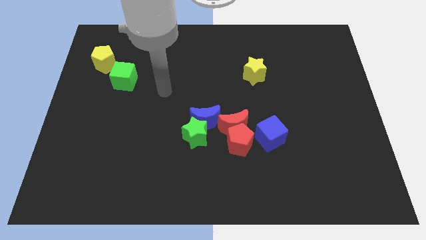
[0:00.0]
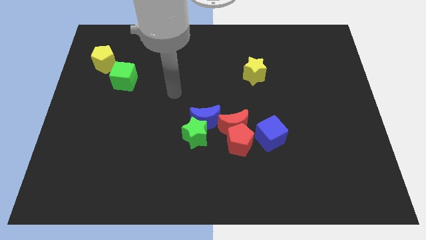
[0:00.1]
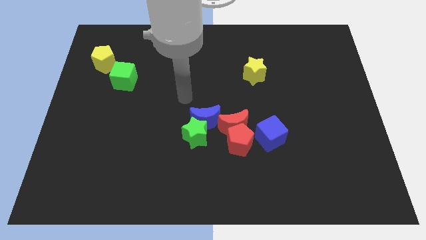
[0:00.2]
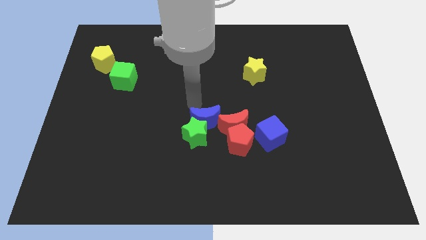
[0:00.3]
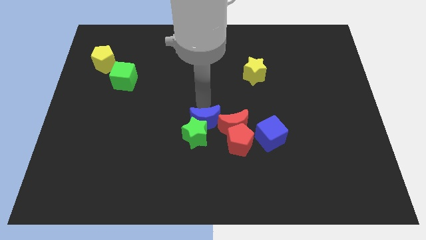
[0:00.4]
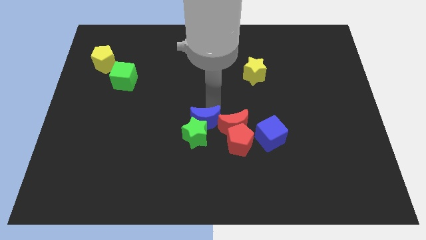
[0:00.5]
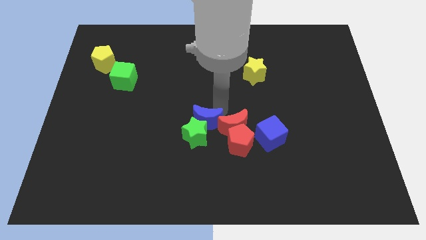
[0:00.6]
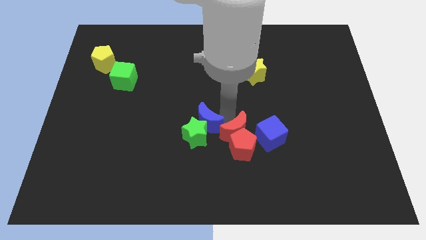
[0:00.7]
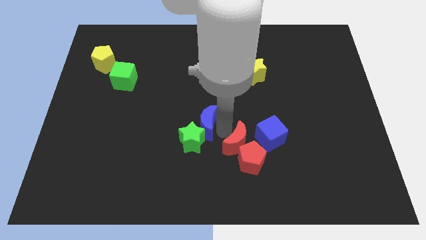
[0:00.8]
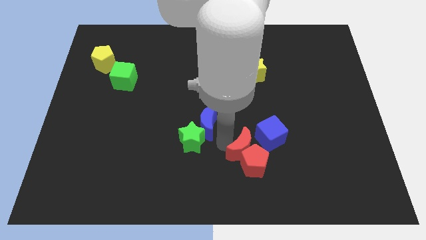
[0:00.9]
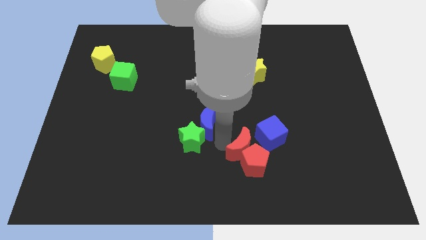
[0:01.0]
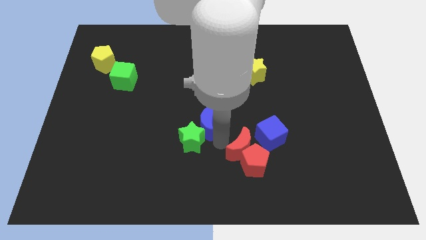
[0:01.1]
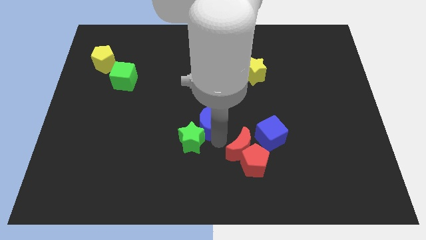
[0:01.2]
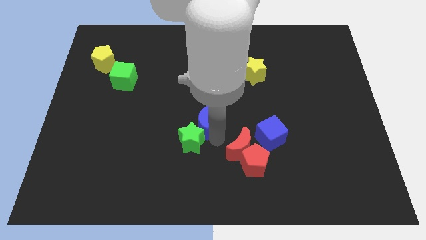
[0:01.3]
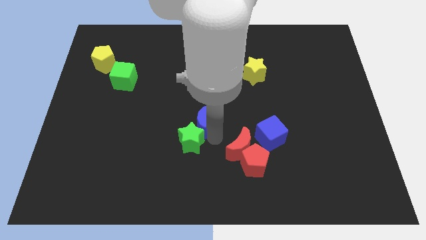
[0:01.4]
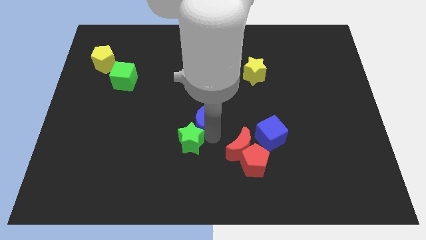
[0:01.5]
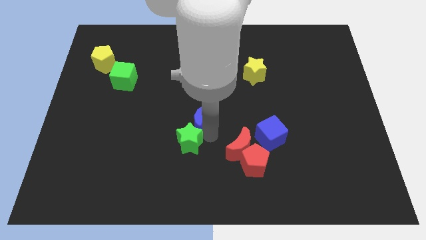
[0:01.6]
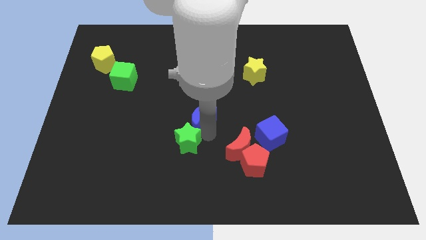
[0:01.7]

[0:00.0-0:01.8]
pull the blue moon apart from the group

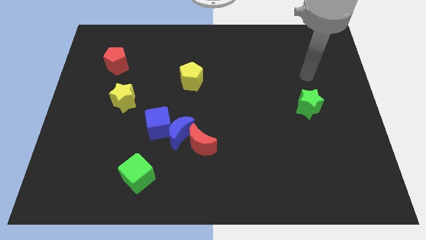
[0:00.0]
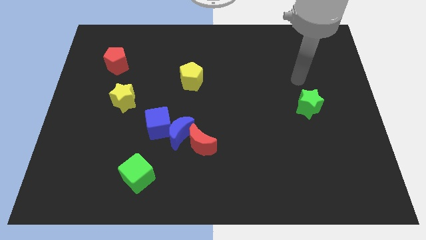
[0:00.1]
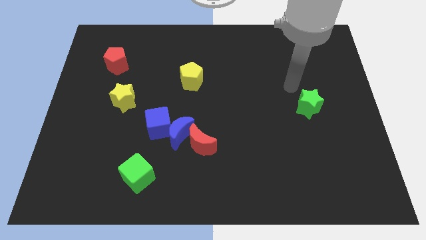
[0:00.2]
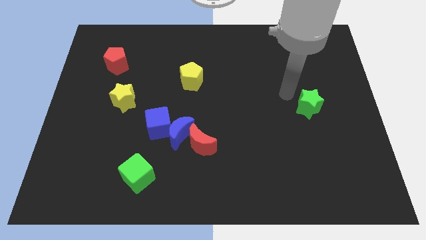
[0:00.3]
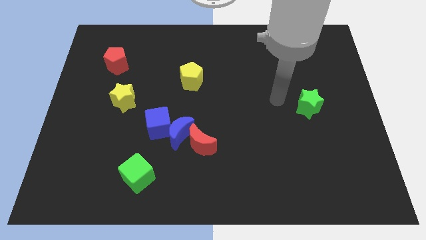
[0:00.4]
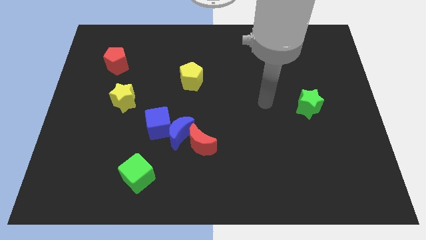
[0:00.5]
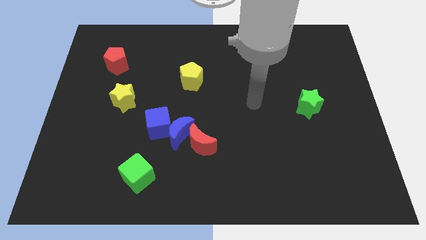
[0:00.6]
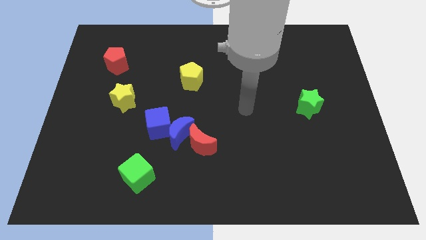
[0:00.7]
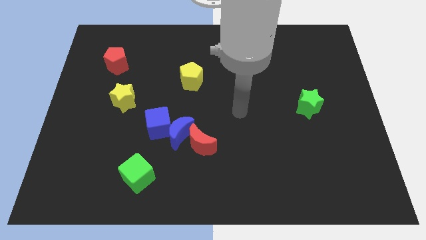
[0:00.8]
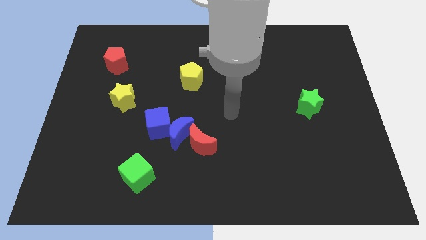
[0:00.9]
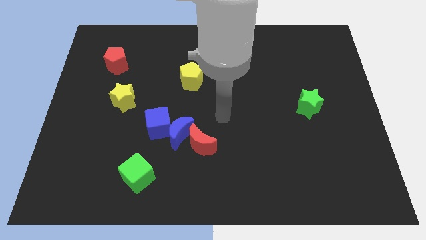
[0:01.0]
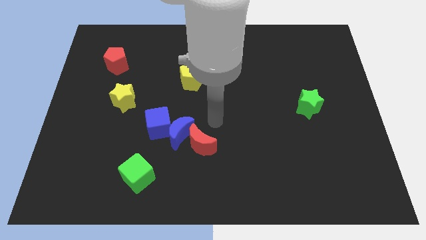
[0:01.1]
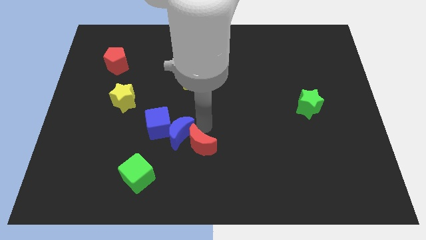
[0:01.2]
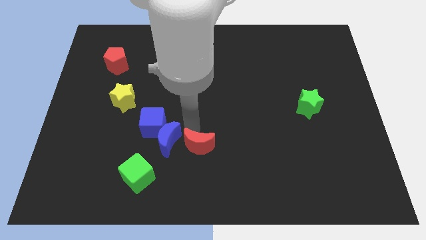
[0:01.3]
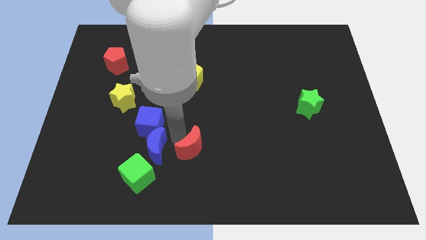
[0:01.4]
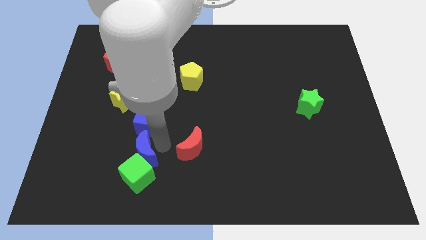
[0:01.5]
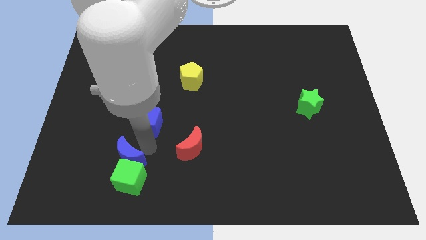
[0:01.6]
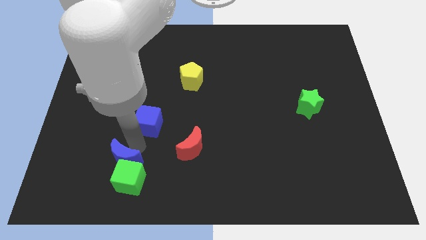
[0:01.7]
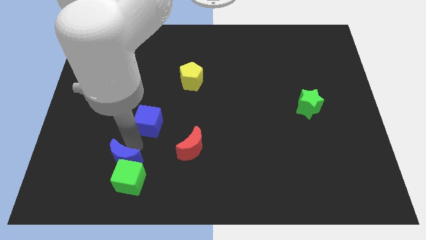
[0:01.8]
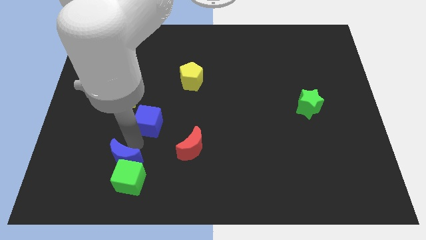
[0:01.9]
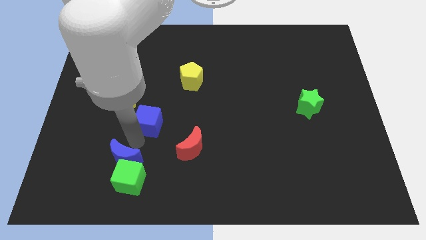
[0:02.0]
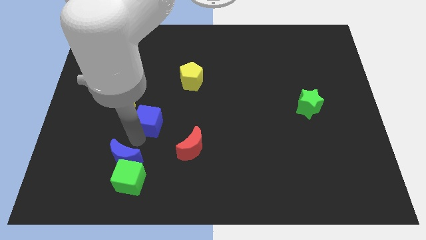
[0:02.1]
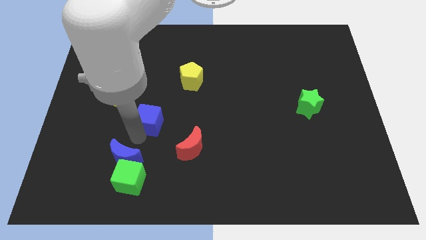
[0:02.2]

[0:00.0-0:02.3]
move the blue cube away from the blue moon

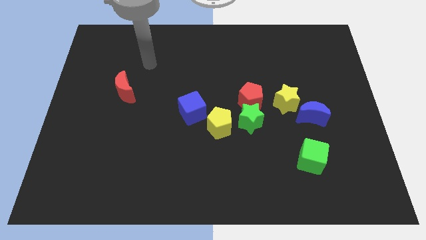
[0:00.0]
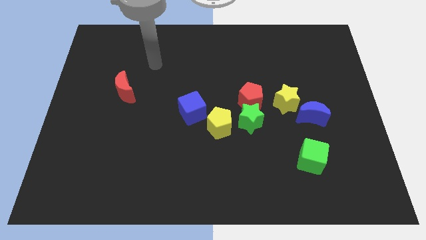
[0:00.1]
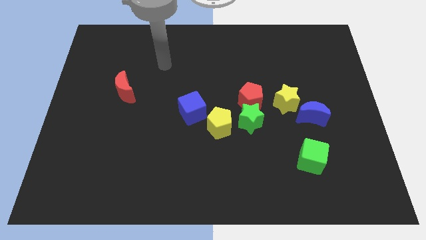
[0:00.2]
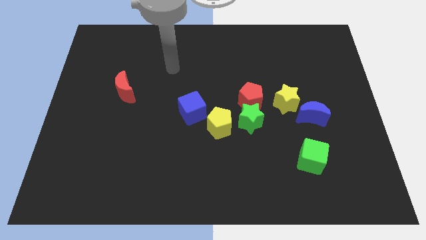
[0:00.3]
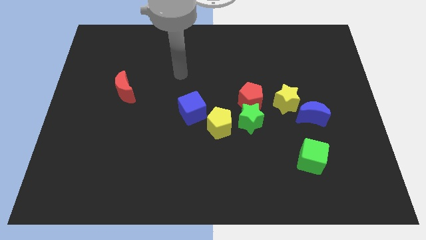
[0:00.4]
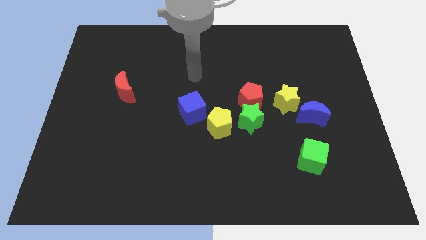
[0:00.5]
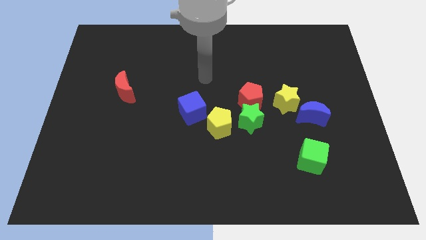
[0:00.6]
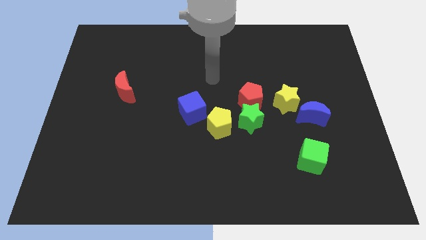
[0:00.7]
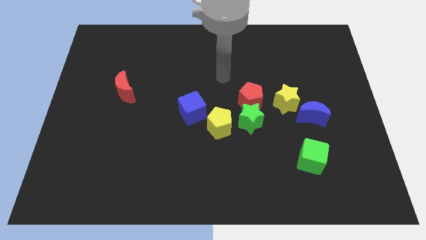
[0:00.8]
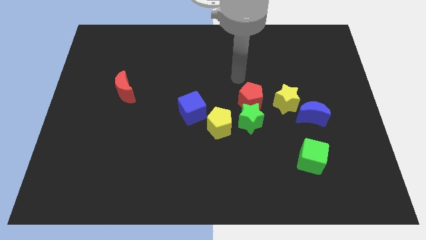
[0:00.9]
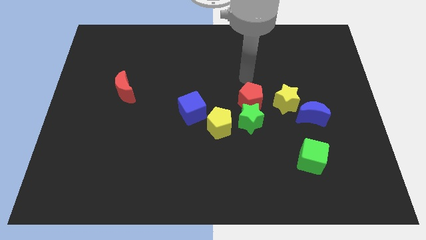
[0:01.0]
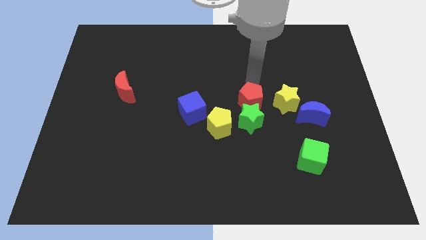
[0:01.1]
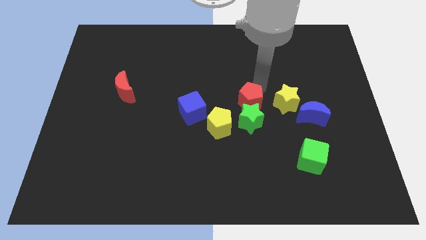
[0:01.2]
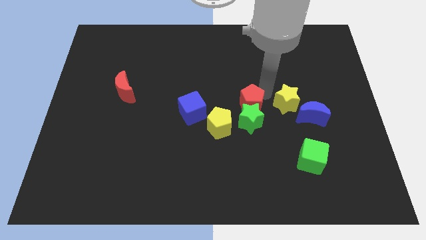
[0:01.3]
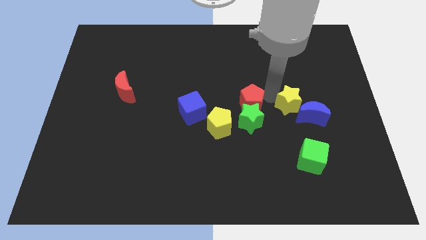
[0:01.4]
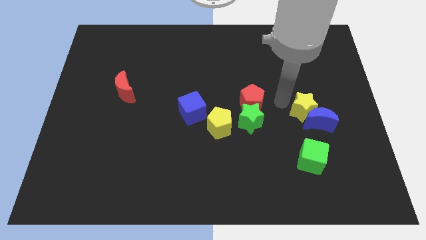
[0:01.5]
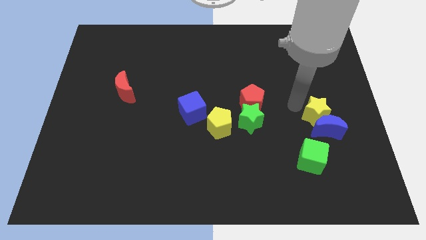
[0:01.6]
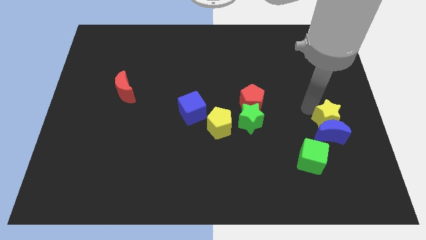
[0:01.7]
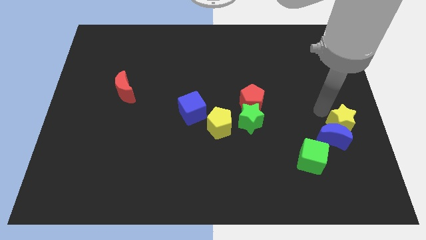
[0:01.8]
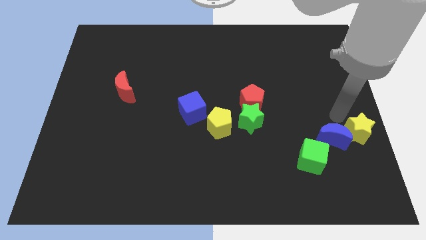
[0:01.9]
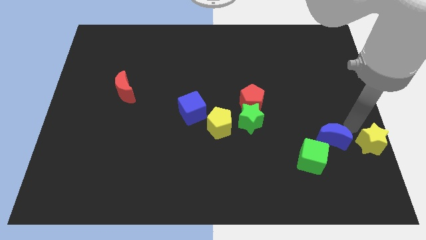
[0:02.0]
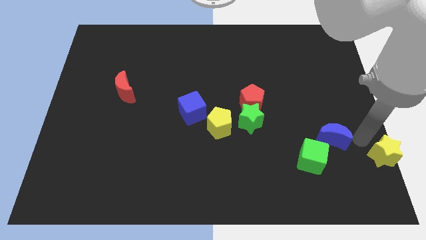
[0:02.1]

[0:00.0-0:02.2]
pull the blue moon apart from the yellow star

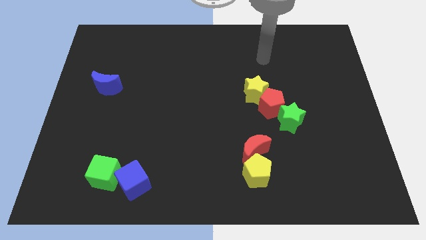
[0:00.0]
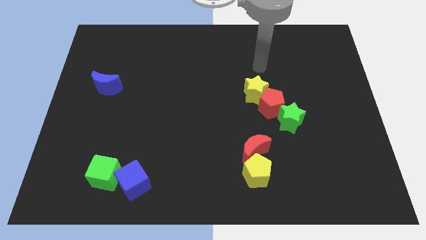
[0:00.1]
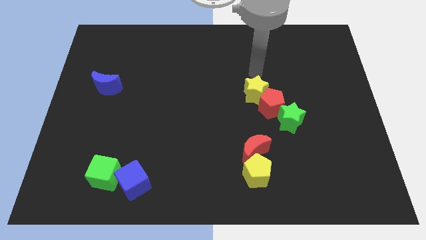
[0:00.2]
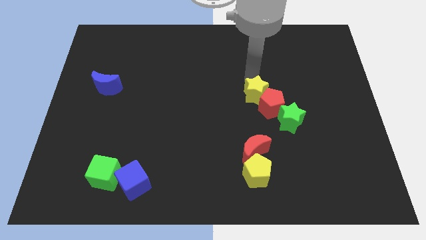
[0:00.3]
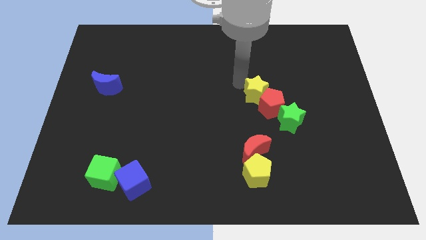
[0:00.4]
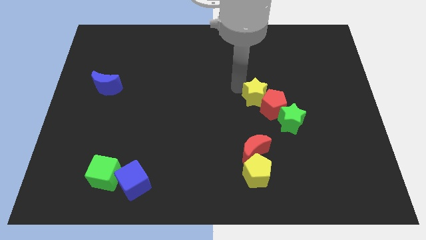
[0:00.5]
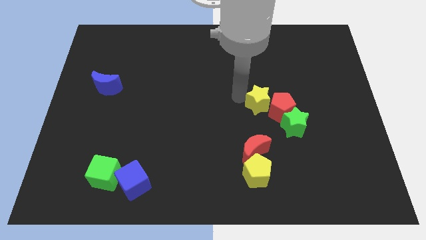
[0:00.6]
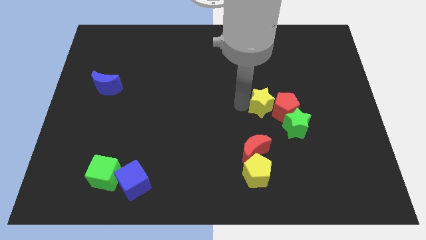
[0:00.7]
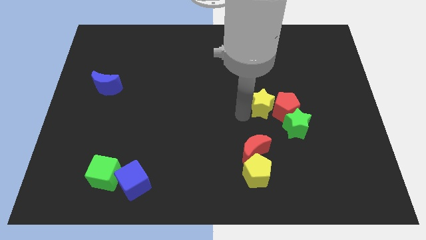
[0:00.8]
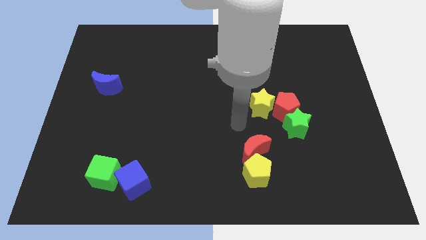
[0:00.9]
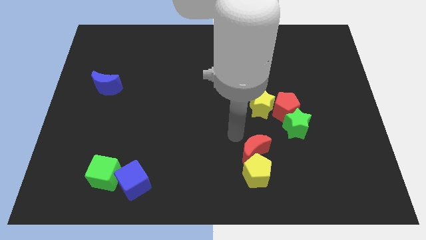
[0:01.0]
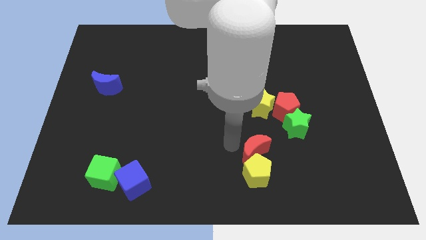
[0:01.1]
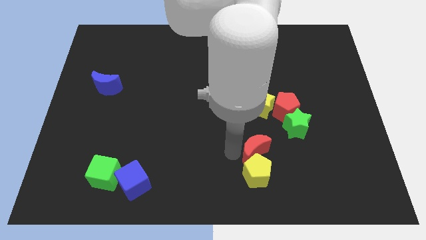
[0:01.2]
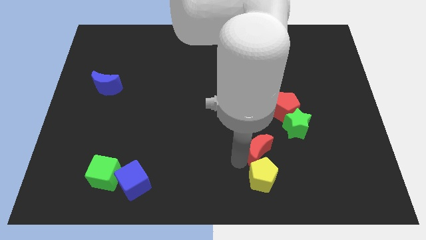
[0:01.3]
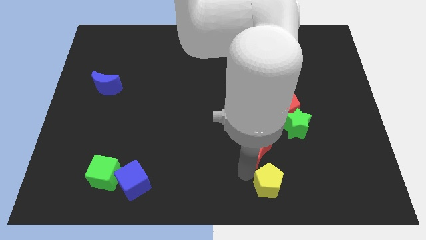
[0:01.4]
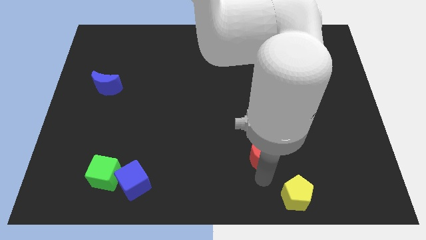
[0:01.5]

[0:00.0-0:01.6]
separate the red moon from the yellow pentagon

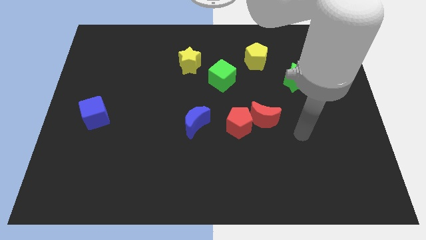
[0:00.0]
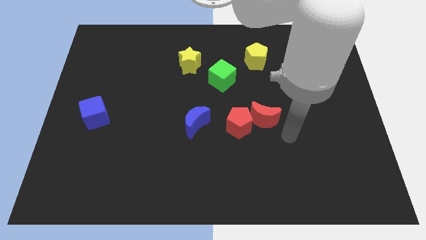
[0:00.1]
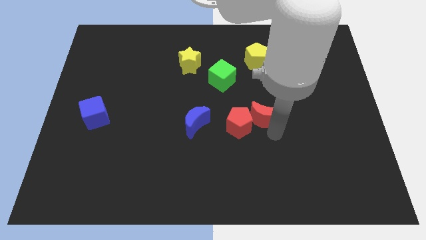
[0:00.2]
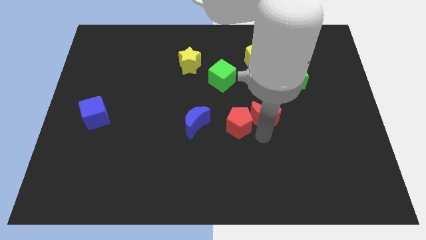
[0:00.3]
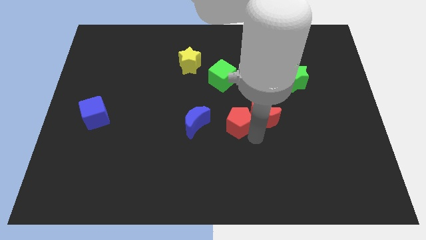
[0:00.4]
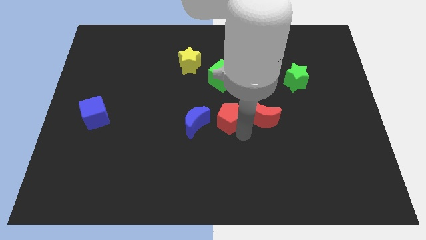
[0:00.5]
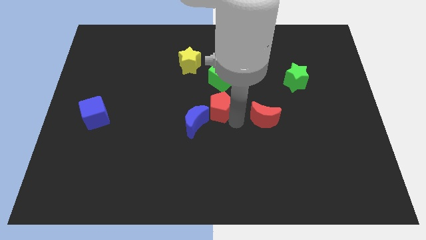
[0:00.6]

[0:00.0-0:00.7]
separate the red moon from the red pentagon

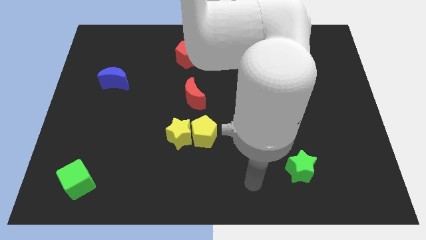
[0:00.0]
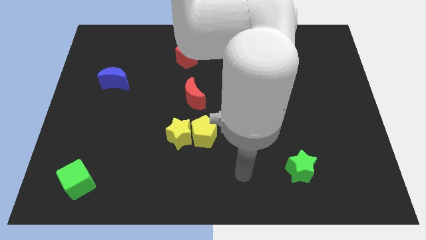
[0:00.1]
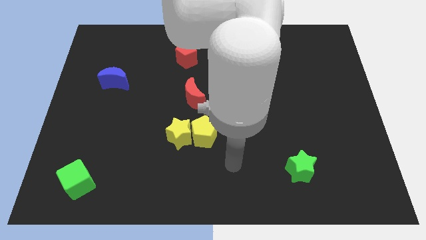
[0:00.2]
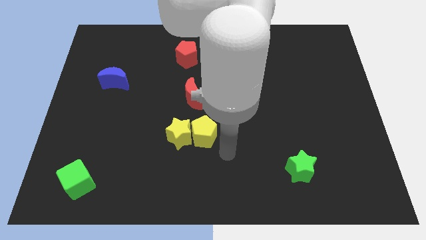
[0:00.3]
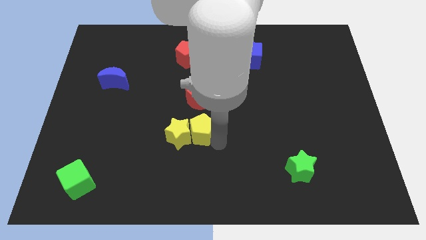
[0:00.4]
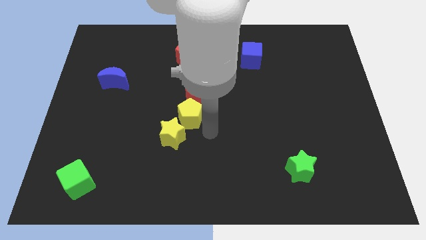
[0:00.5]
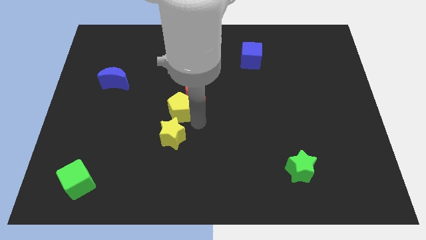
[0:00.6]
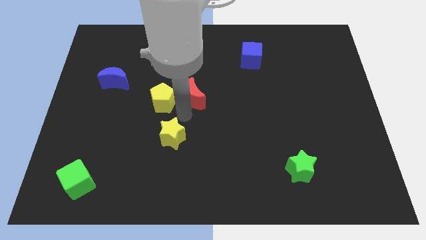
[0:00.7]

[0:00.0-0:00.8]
move the yellow star away from the yellow pentagon
